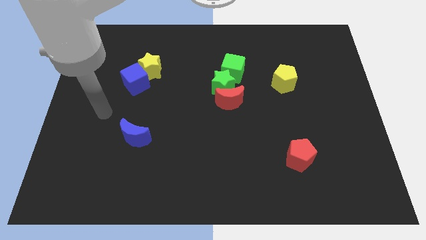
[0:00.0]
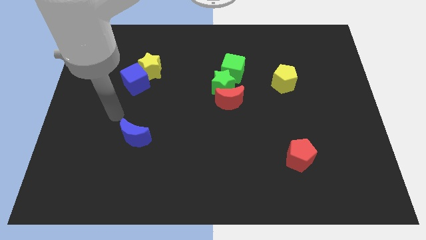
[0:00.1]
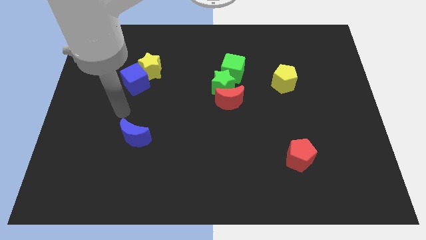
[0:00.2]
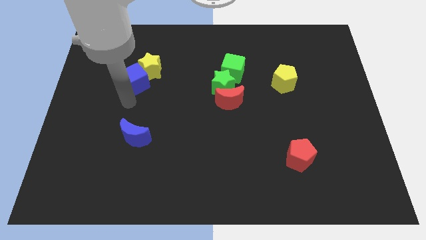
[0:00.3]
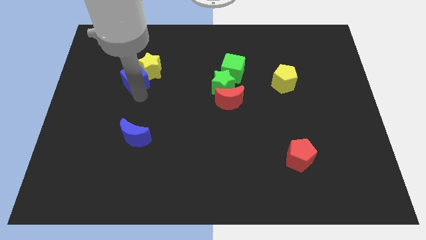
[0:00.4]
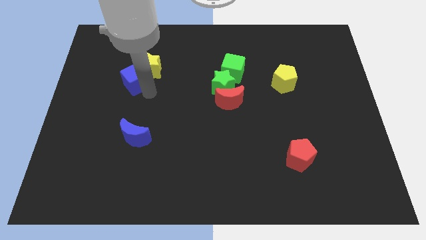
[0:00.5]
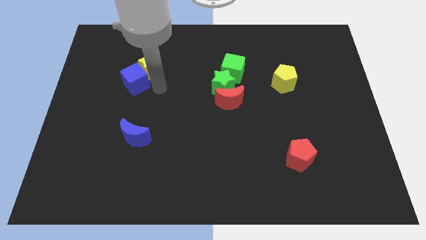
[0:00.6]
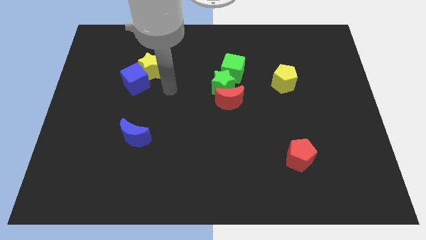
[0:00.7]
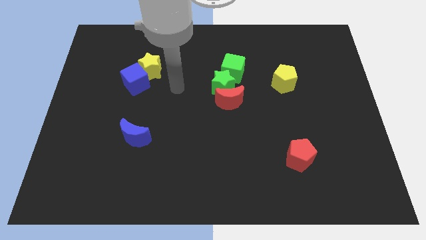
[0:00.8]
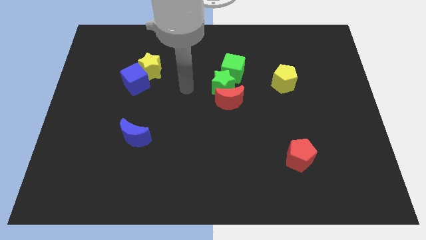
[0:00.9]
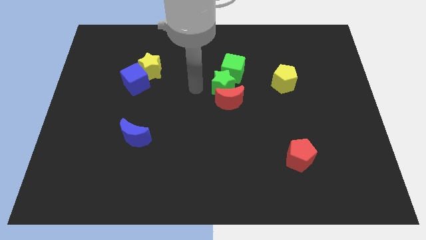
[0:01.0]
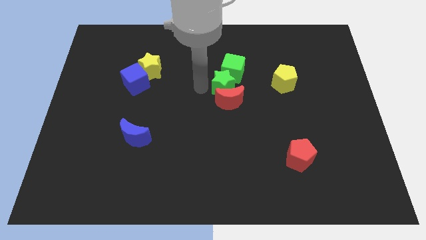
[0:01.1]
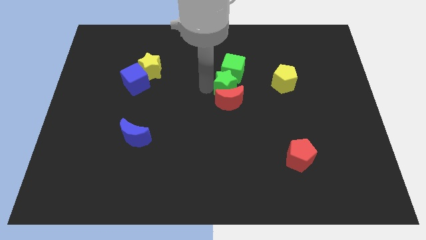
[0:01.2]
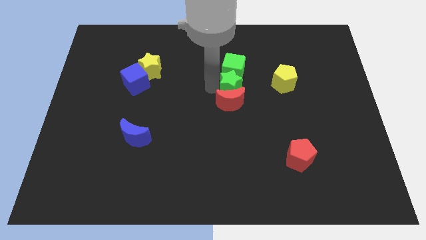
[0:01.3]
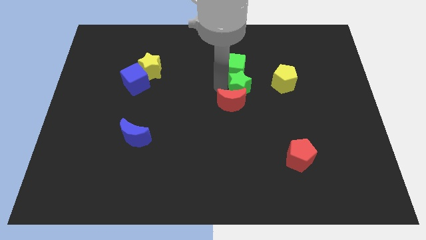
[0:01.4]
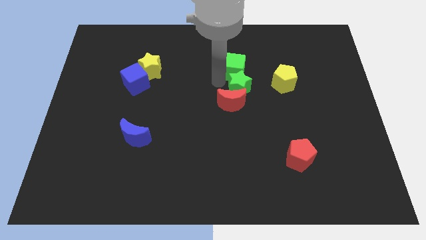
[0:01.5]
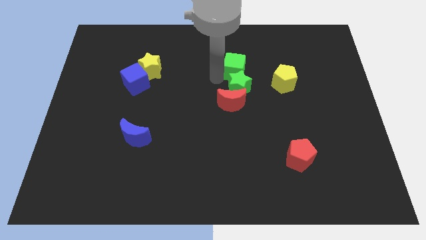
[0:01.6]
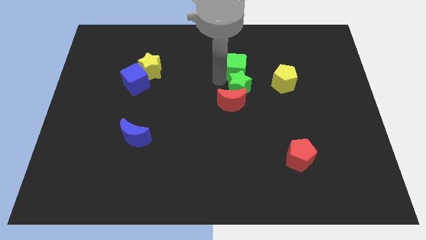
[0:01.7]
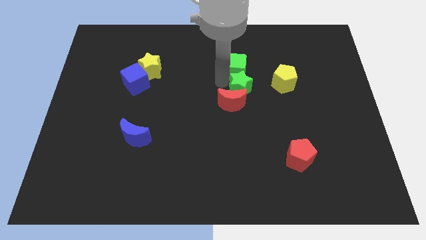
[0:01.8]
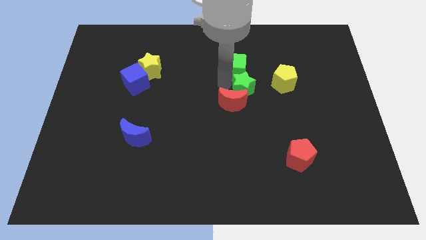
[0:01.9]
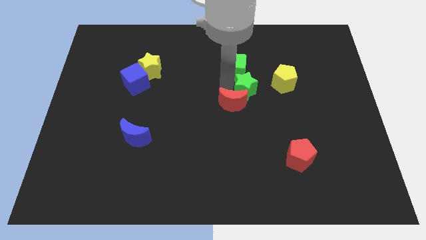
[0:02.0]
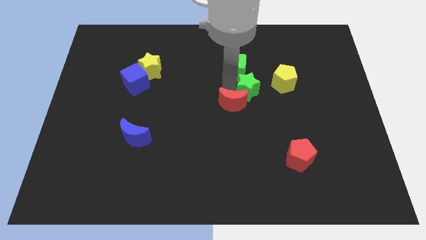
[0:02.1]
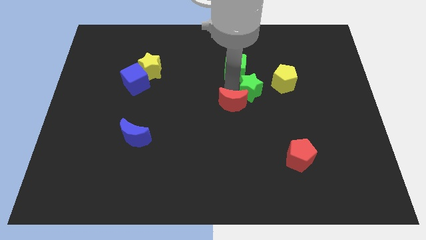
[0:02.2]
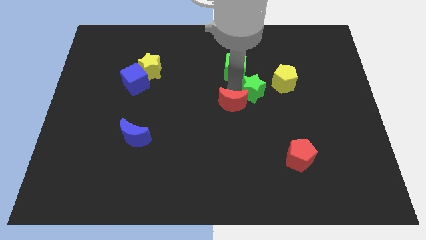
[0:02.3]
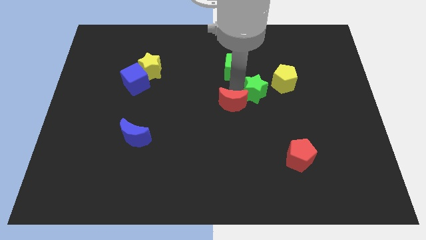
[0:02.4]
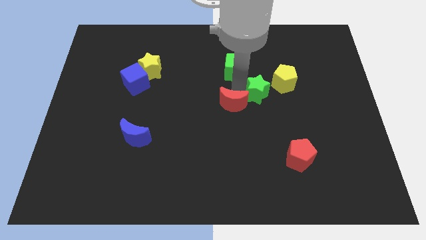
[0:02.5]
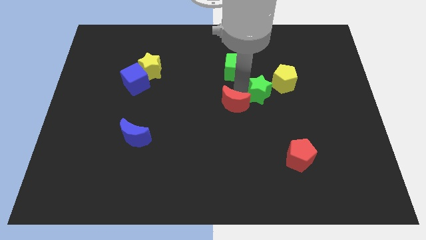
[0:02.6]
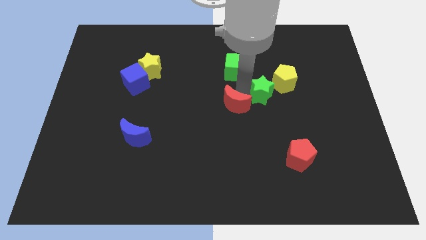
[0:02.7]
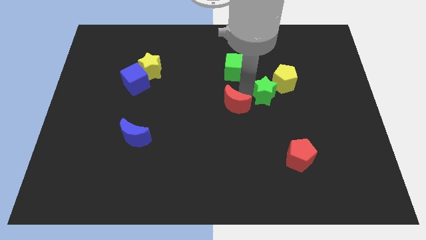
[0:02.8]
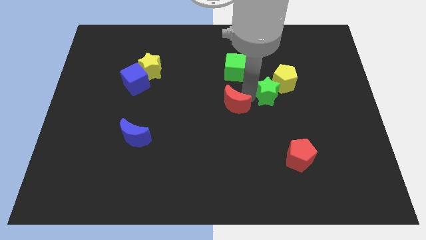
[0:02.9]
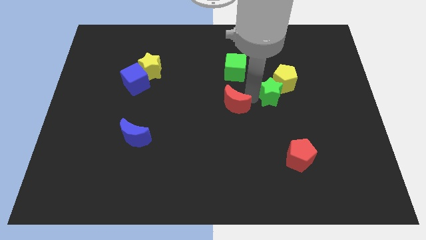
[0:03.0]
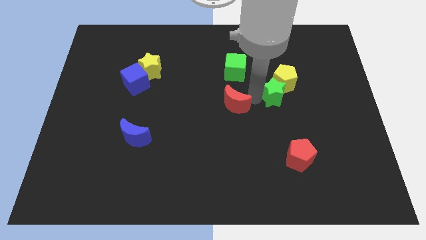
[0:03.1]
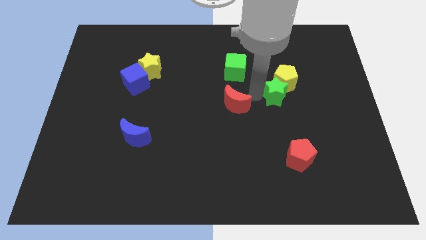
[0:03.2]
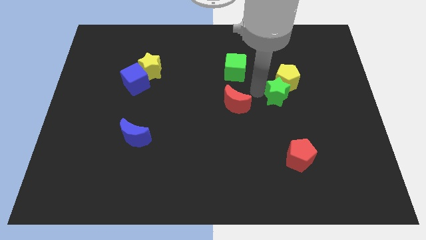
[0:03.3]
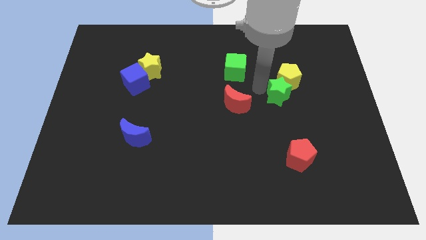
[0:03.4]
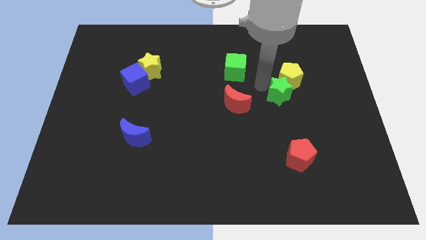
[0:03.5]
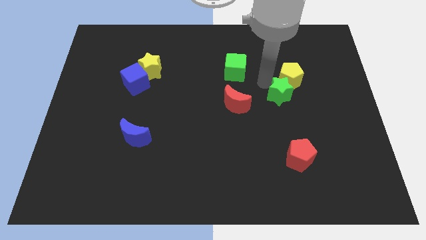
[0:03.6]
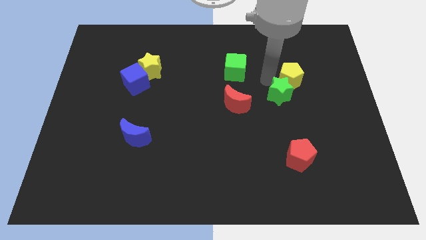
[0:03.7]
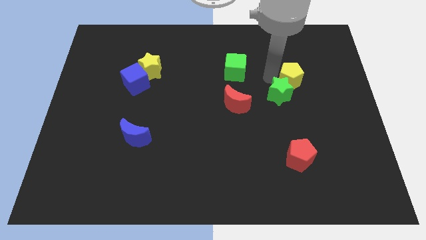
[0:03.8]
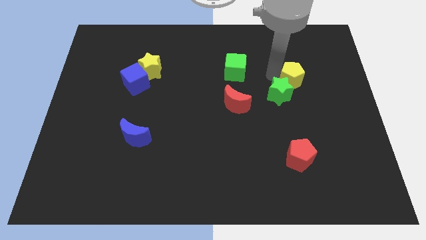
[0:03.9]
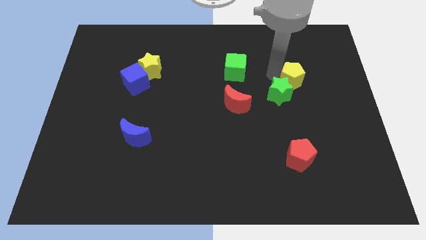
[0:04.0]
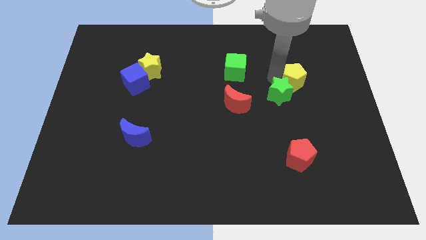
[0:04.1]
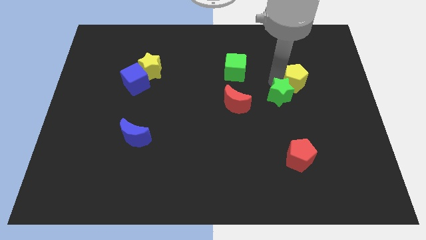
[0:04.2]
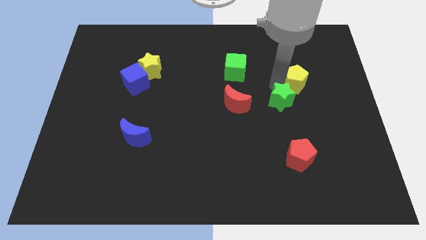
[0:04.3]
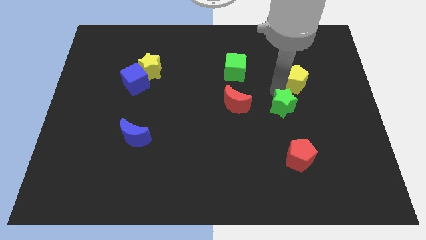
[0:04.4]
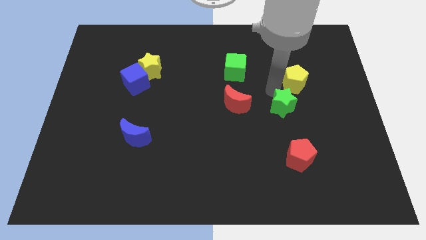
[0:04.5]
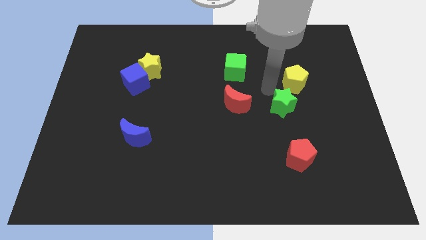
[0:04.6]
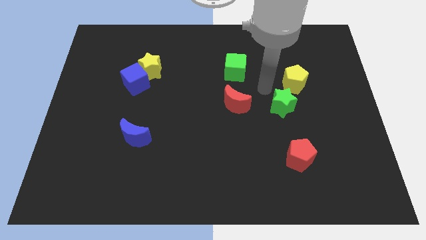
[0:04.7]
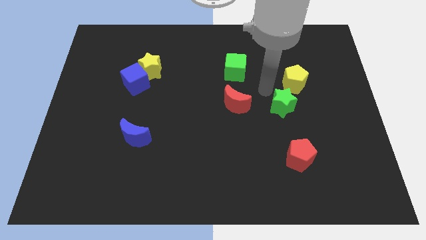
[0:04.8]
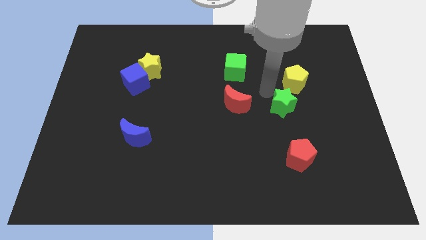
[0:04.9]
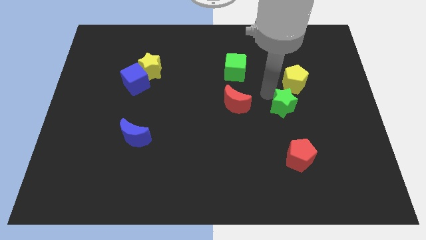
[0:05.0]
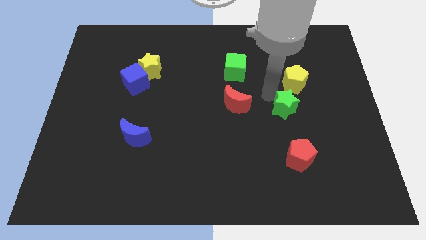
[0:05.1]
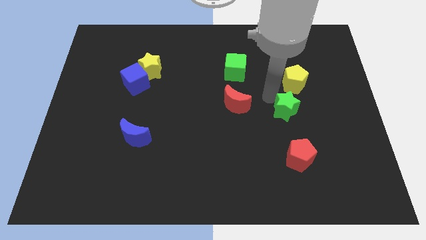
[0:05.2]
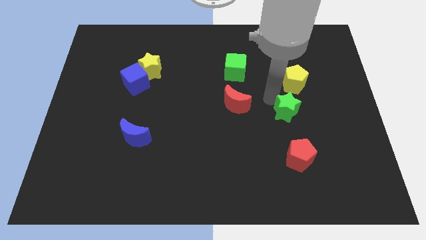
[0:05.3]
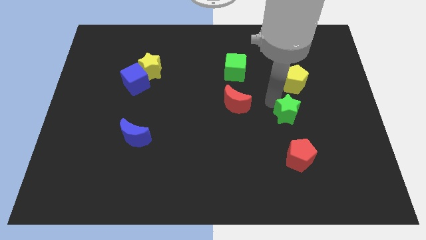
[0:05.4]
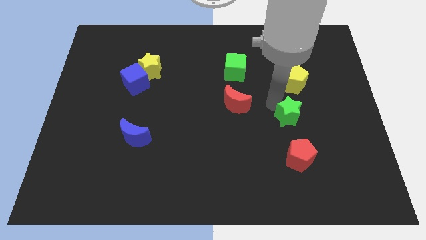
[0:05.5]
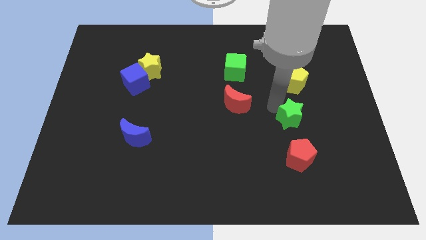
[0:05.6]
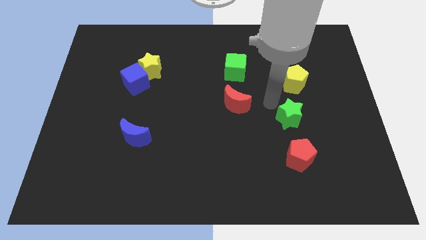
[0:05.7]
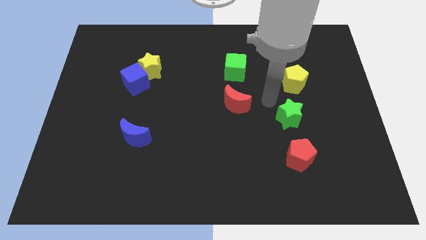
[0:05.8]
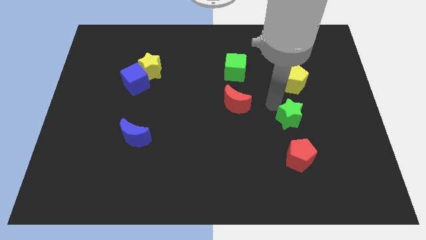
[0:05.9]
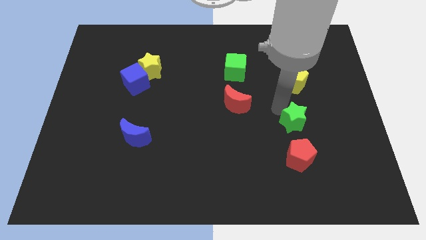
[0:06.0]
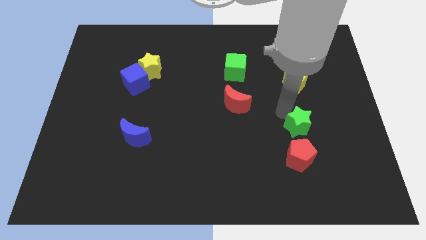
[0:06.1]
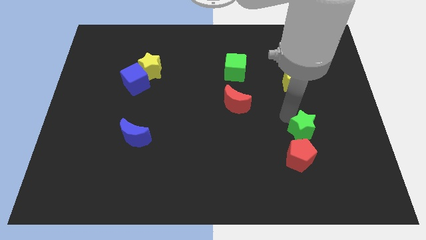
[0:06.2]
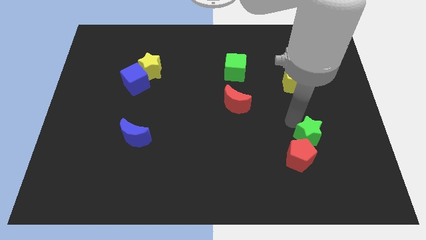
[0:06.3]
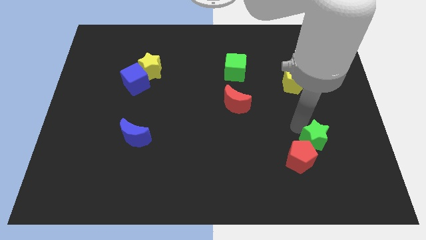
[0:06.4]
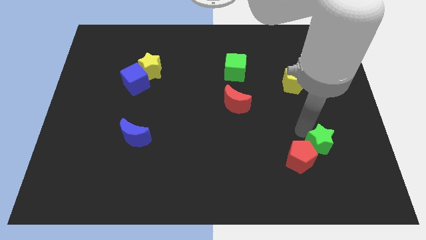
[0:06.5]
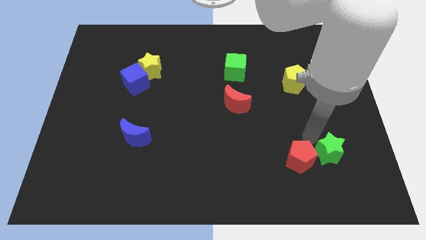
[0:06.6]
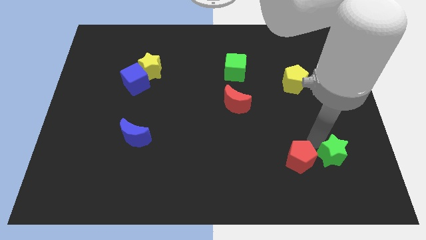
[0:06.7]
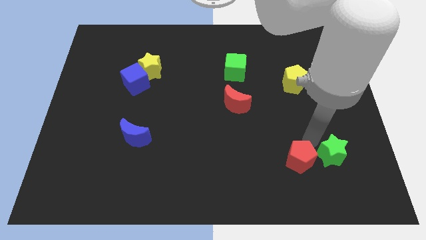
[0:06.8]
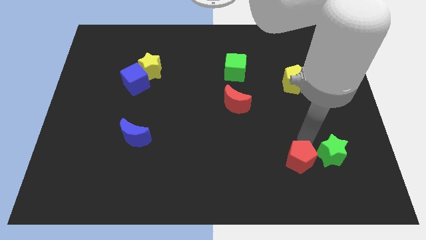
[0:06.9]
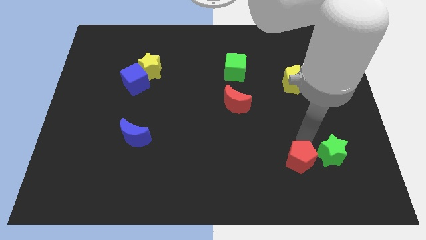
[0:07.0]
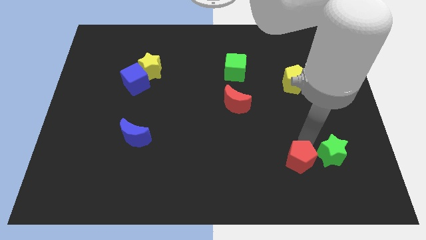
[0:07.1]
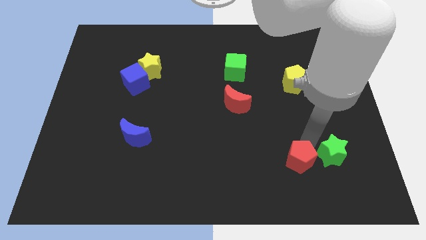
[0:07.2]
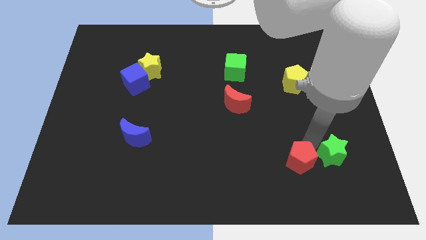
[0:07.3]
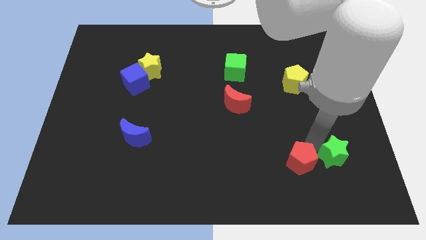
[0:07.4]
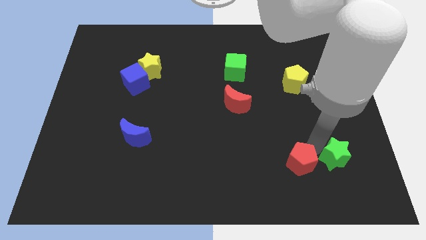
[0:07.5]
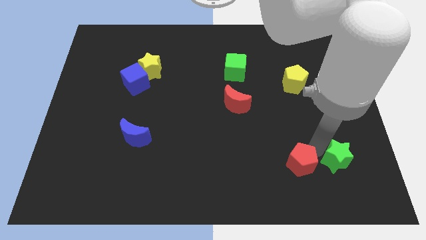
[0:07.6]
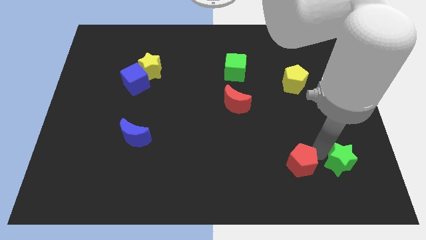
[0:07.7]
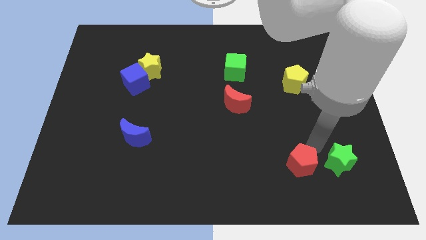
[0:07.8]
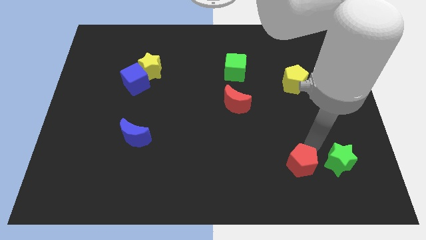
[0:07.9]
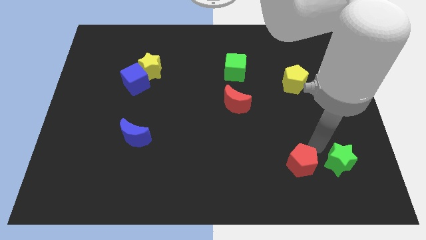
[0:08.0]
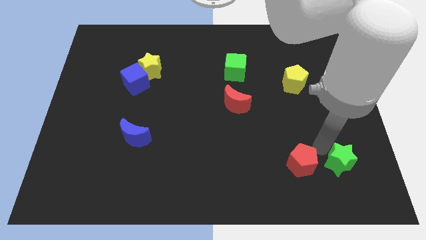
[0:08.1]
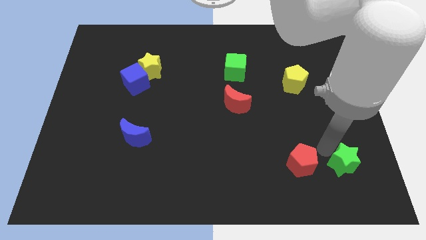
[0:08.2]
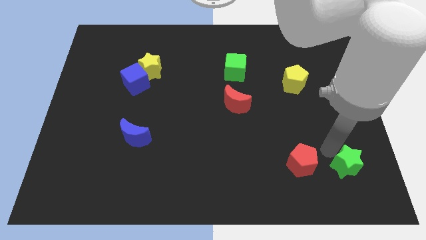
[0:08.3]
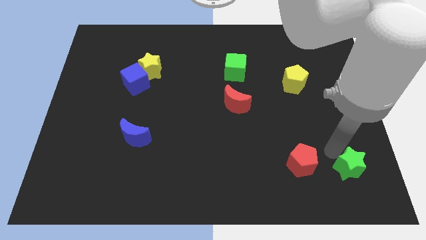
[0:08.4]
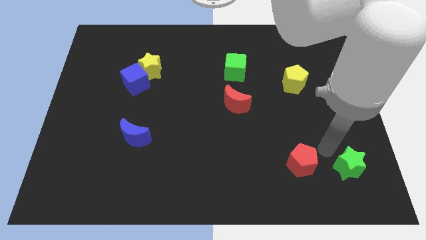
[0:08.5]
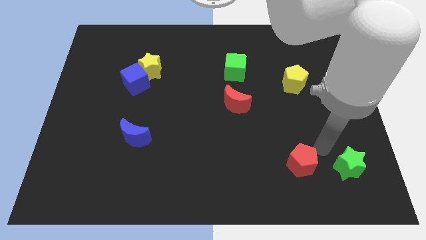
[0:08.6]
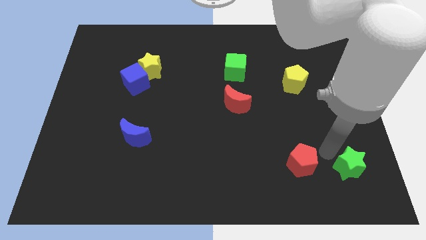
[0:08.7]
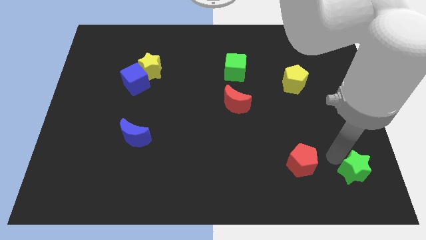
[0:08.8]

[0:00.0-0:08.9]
move the green star to the bottom right of the board
